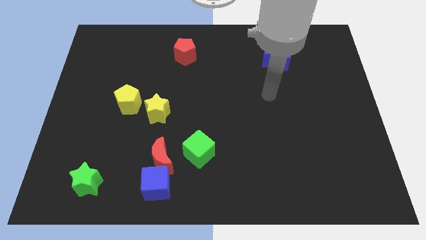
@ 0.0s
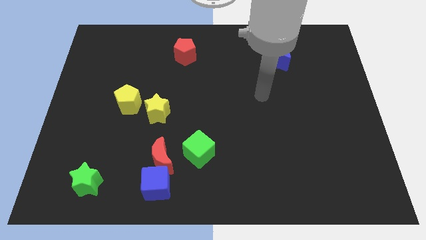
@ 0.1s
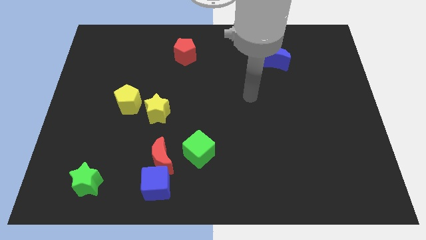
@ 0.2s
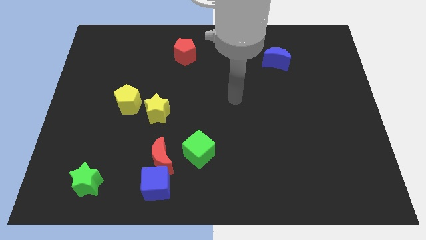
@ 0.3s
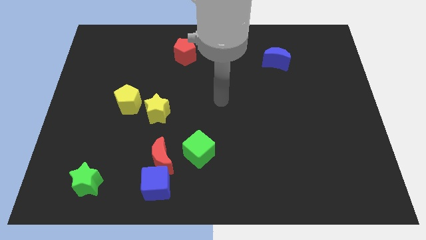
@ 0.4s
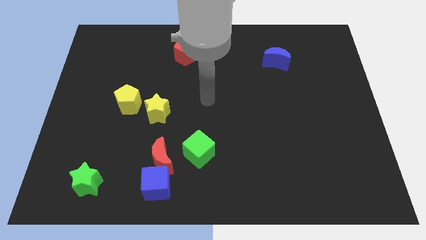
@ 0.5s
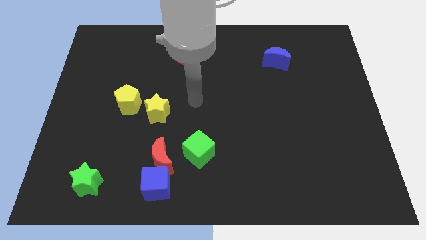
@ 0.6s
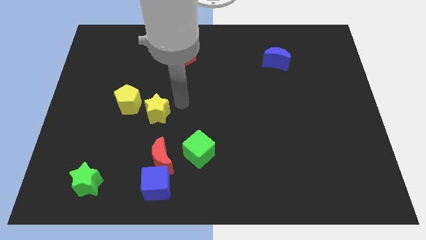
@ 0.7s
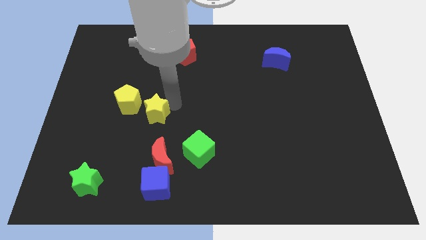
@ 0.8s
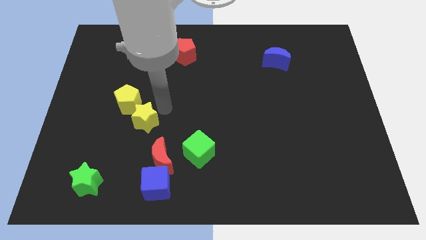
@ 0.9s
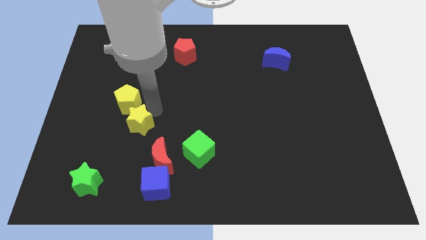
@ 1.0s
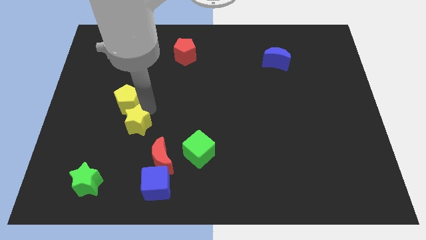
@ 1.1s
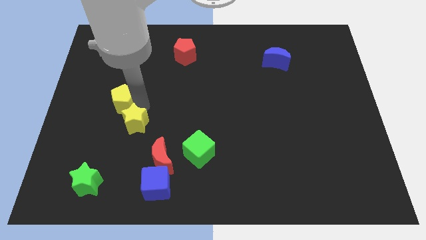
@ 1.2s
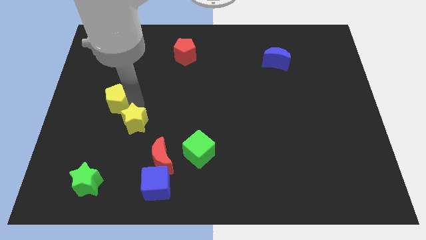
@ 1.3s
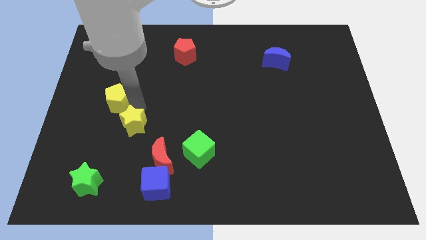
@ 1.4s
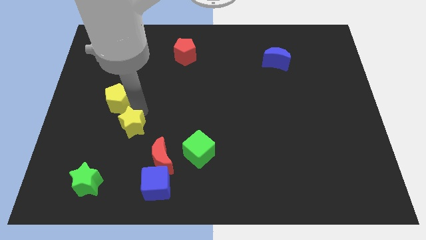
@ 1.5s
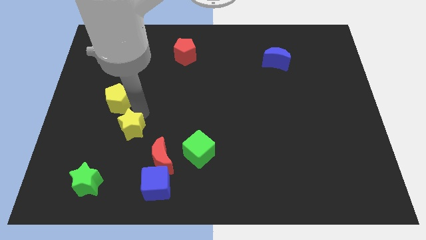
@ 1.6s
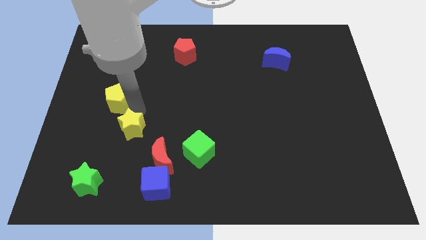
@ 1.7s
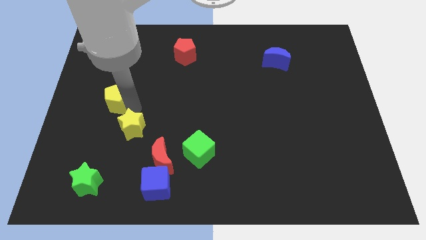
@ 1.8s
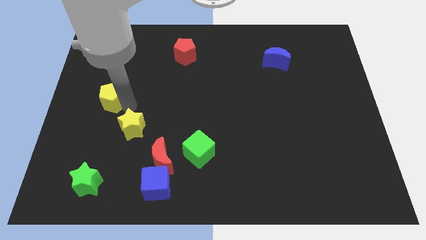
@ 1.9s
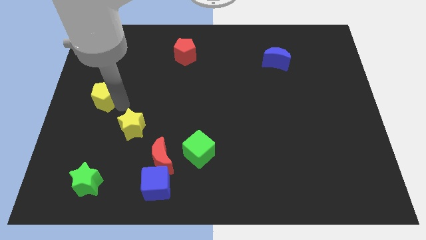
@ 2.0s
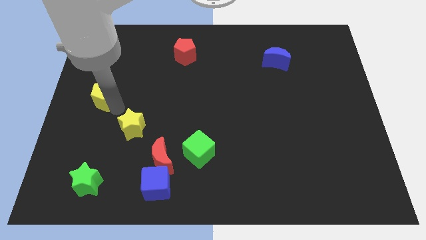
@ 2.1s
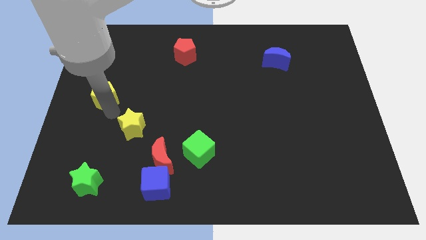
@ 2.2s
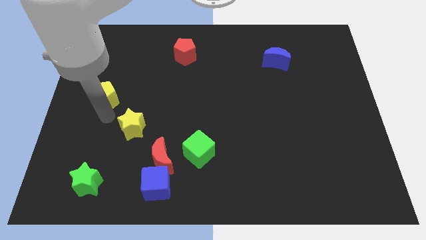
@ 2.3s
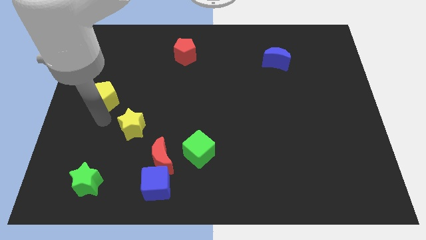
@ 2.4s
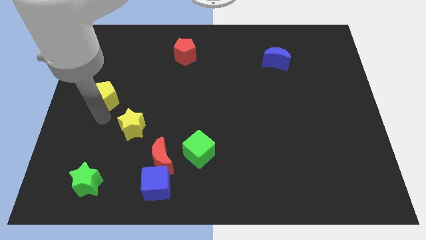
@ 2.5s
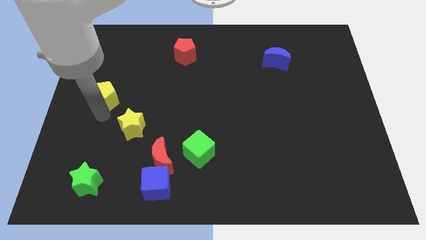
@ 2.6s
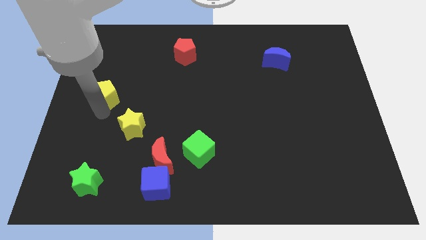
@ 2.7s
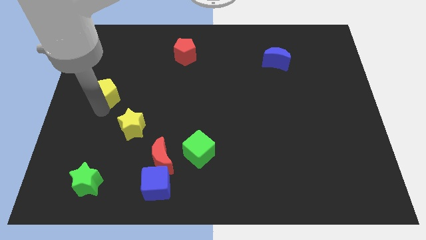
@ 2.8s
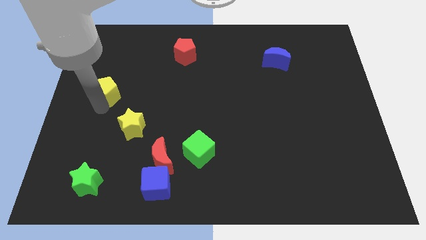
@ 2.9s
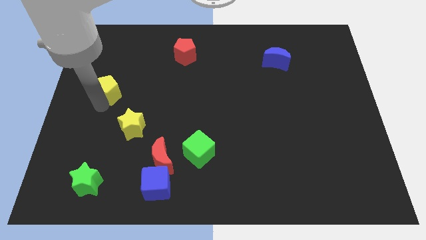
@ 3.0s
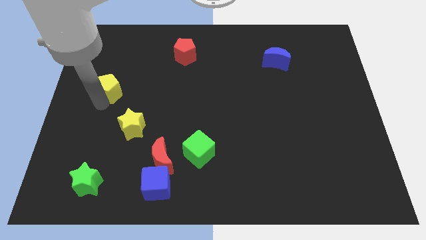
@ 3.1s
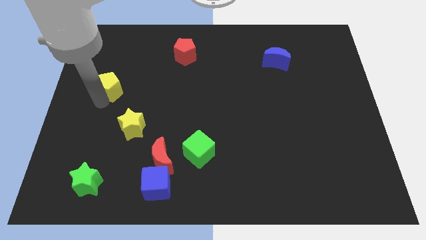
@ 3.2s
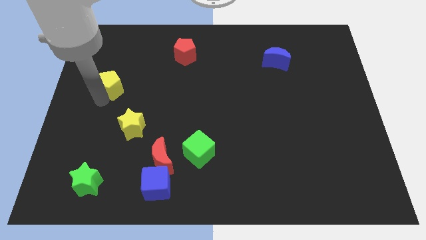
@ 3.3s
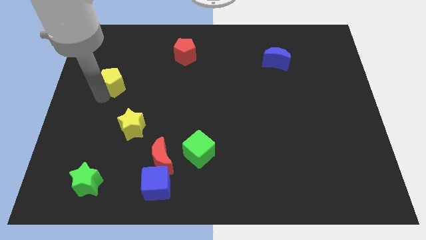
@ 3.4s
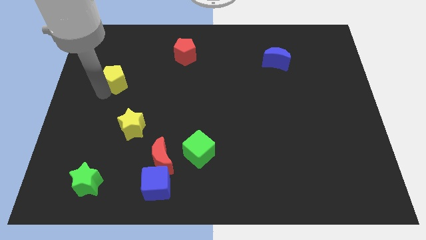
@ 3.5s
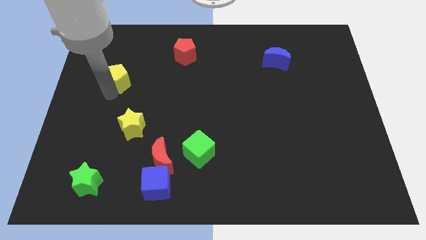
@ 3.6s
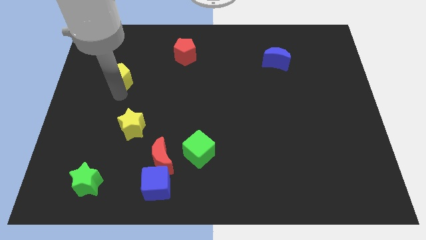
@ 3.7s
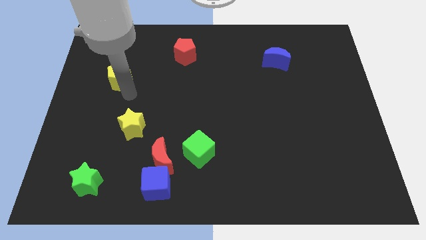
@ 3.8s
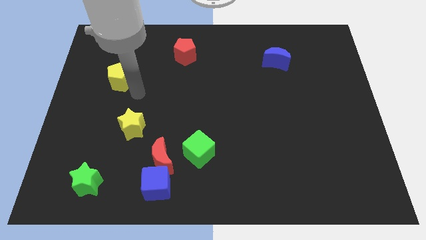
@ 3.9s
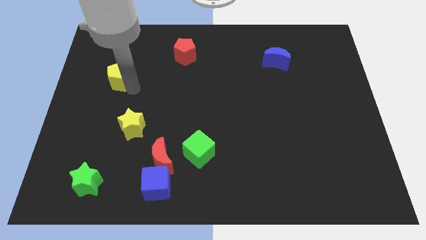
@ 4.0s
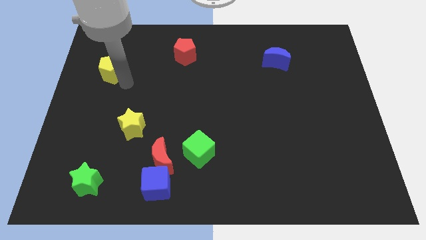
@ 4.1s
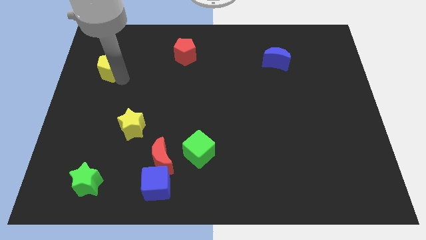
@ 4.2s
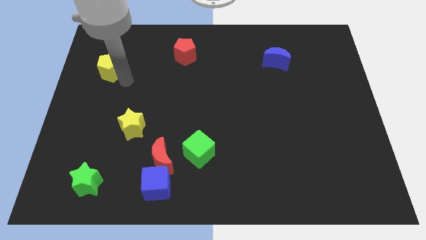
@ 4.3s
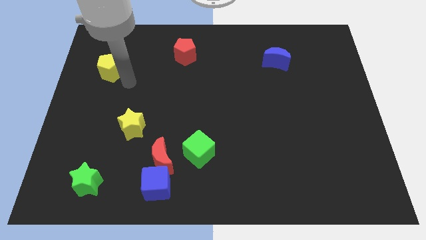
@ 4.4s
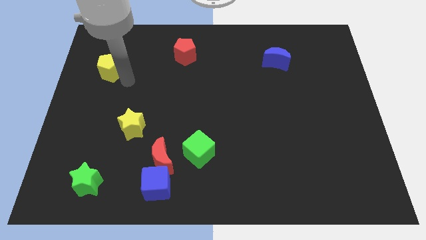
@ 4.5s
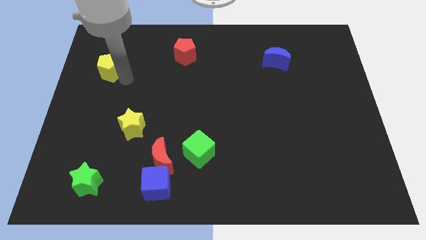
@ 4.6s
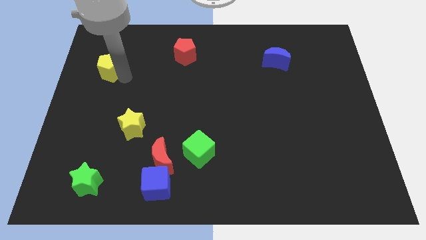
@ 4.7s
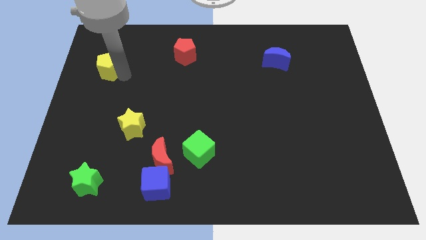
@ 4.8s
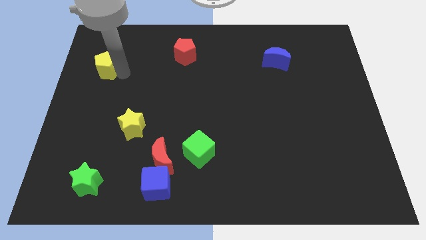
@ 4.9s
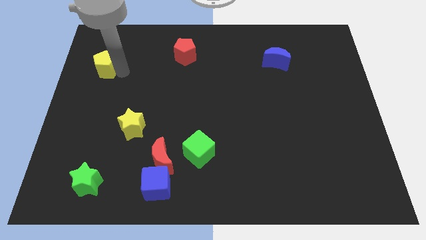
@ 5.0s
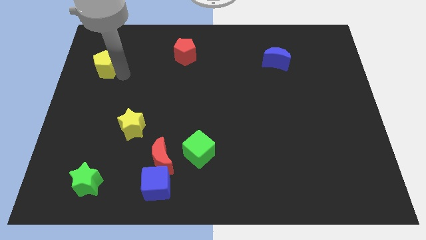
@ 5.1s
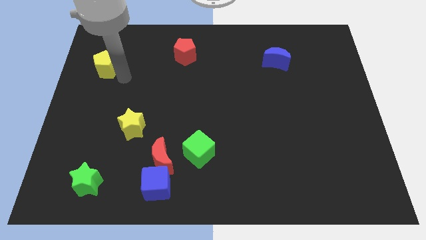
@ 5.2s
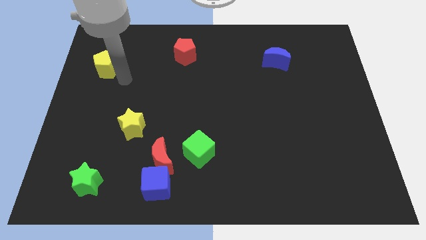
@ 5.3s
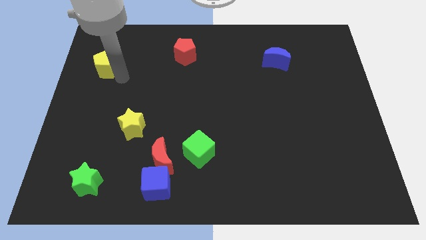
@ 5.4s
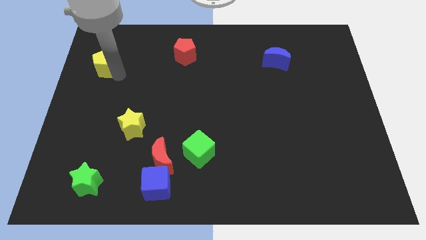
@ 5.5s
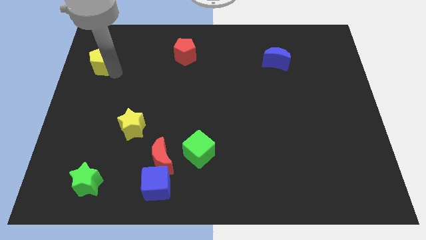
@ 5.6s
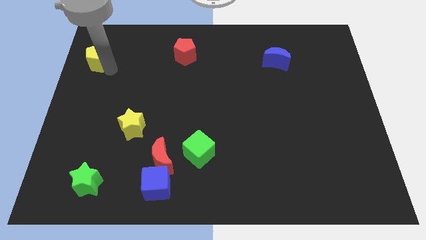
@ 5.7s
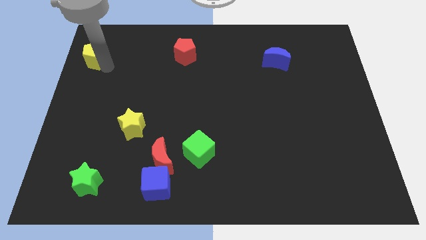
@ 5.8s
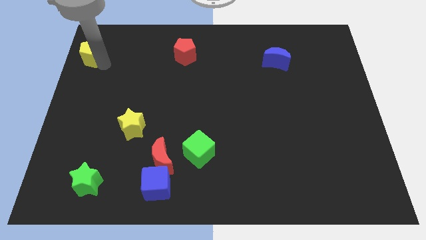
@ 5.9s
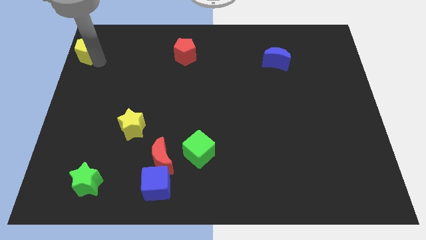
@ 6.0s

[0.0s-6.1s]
push the yellow pentagon to the upper left corner

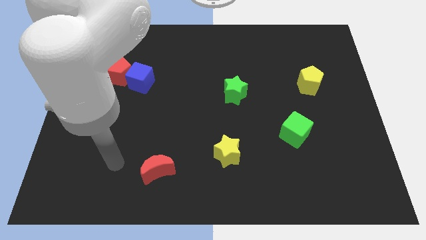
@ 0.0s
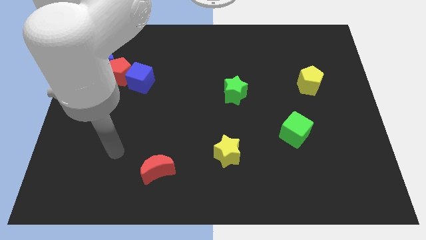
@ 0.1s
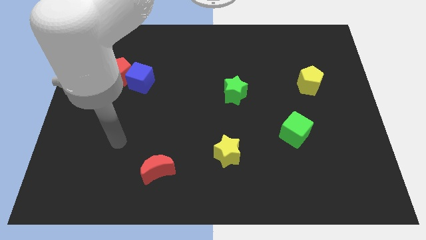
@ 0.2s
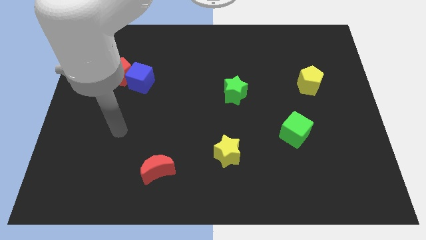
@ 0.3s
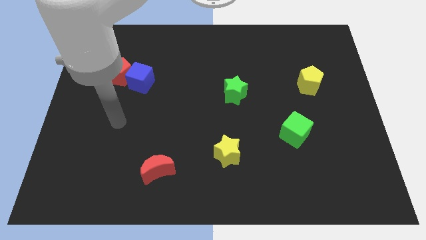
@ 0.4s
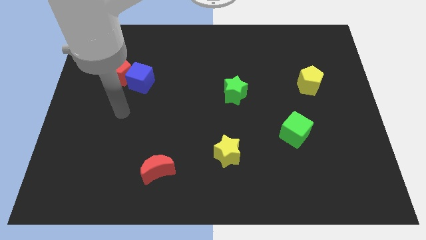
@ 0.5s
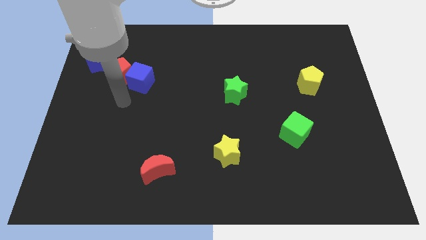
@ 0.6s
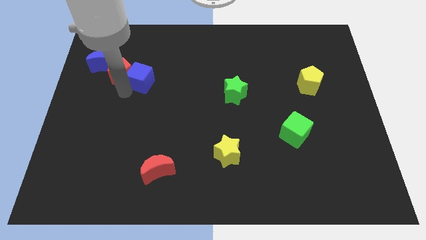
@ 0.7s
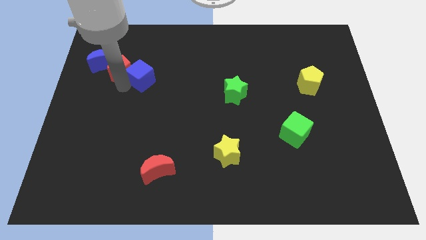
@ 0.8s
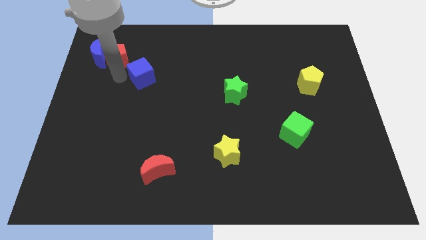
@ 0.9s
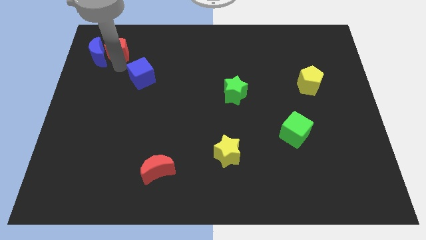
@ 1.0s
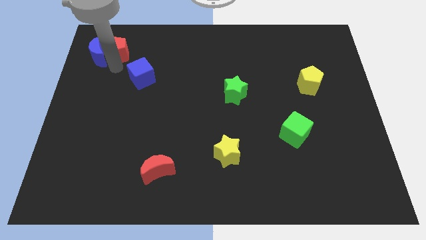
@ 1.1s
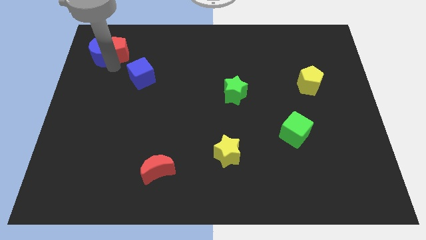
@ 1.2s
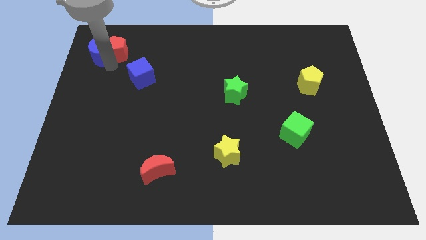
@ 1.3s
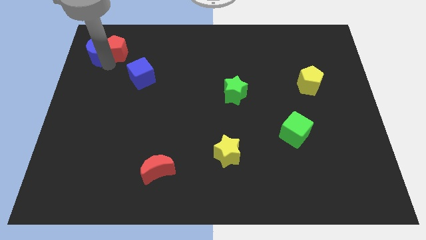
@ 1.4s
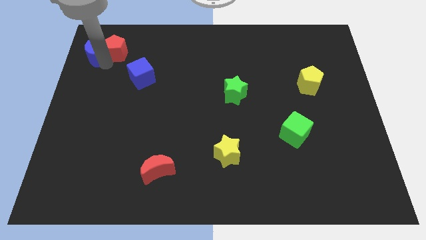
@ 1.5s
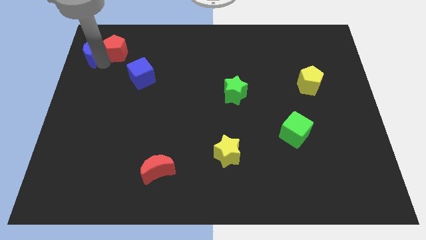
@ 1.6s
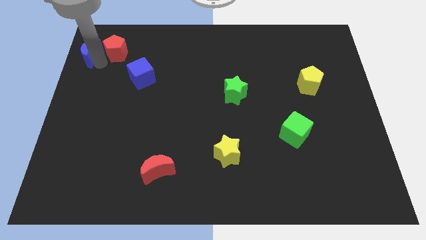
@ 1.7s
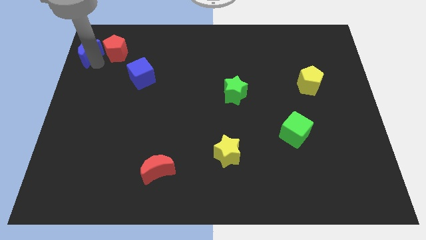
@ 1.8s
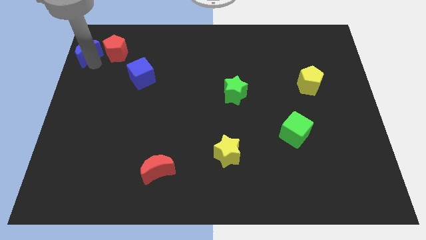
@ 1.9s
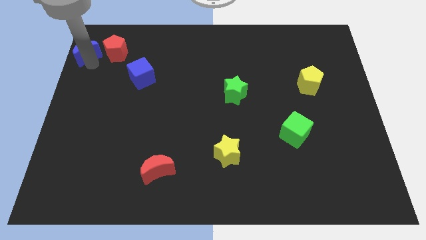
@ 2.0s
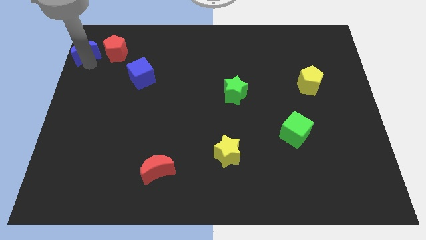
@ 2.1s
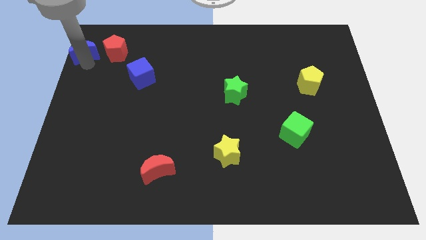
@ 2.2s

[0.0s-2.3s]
put the blue moon to the upper left corner
